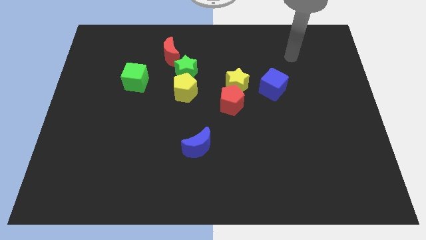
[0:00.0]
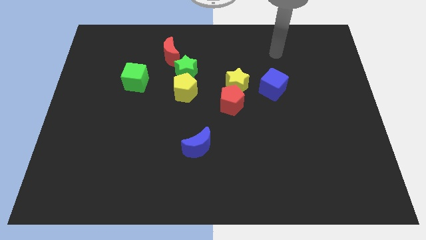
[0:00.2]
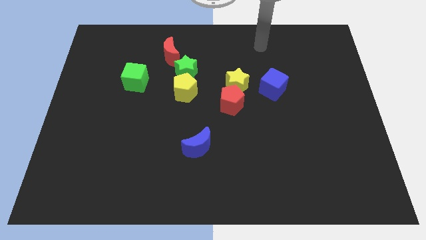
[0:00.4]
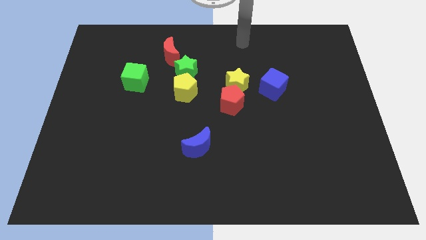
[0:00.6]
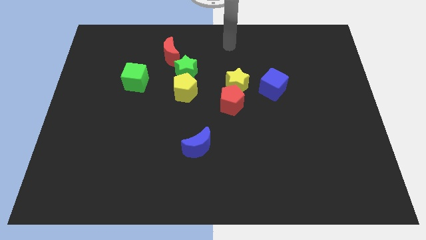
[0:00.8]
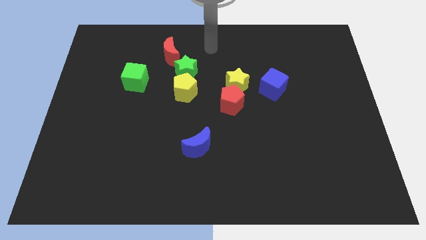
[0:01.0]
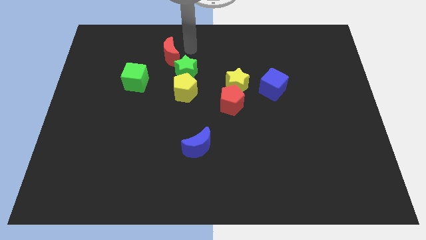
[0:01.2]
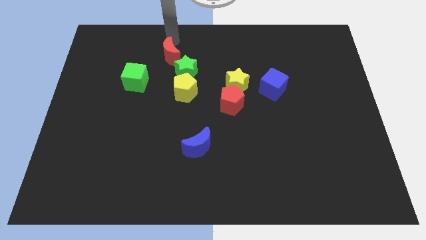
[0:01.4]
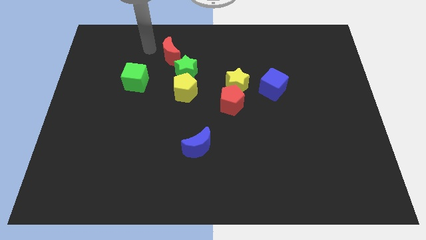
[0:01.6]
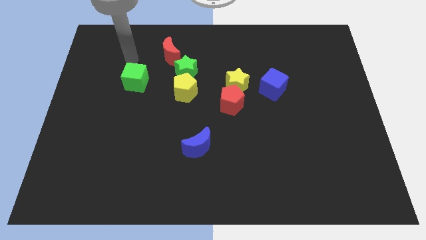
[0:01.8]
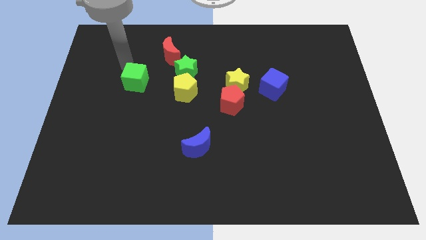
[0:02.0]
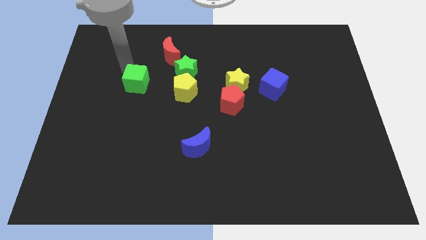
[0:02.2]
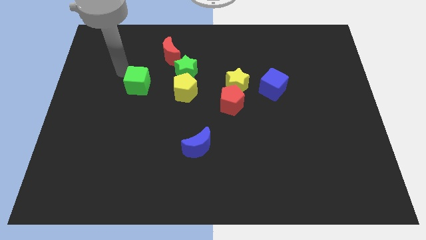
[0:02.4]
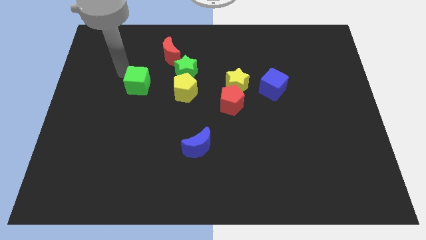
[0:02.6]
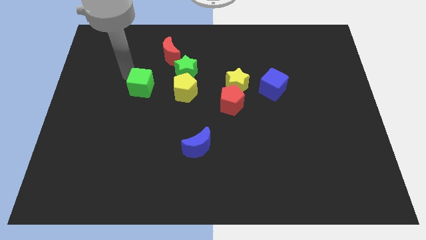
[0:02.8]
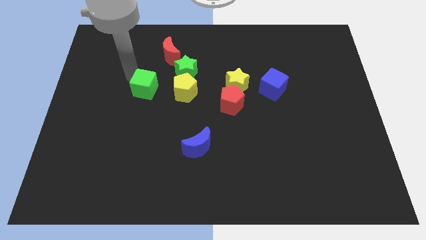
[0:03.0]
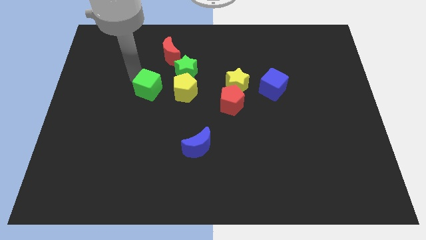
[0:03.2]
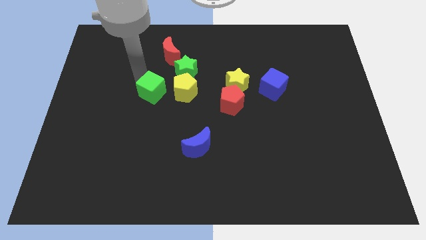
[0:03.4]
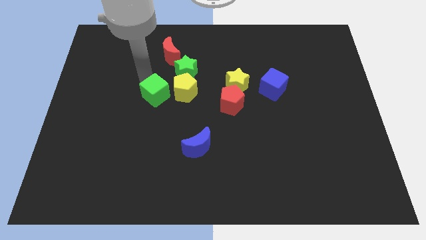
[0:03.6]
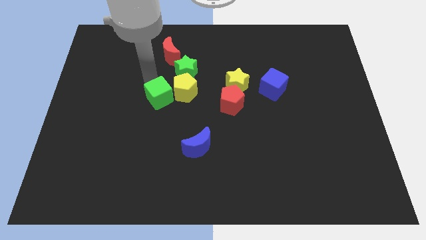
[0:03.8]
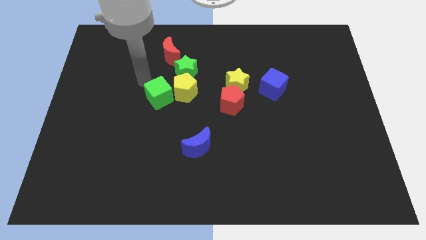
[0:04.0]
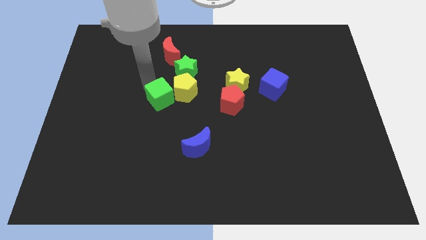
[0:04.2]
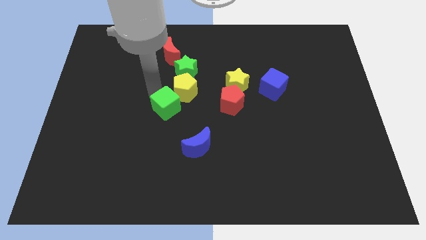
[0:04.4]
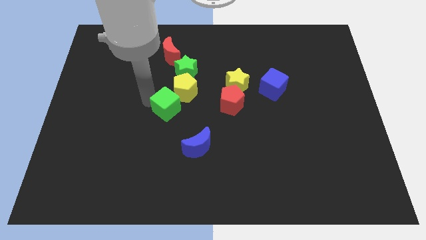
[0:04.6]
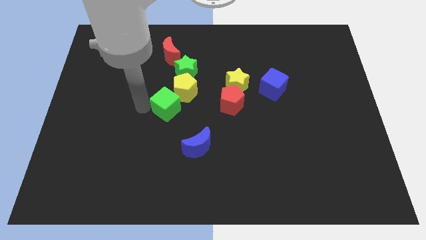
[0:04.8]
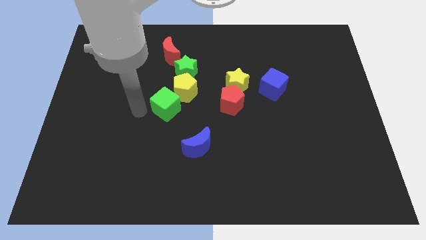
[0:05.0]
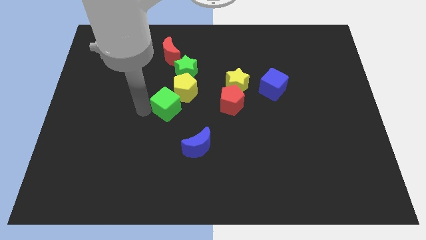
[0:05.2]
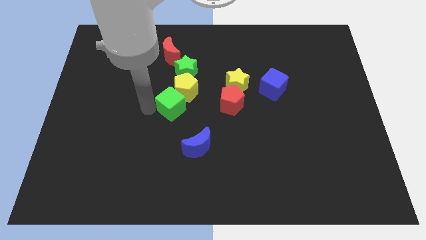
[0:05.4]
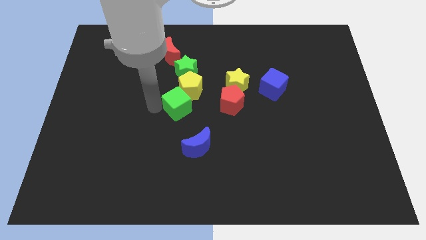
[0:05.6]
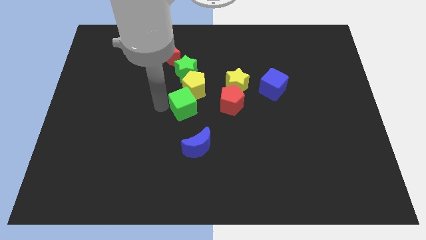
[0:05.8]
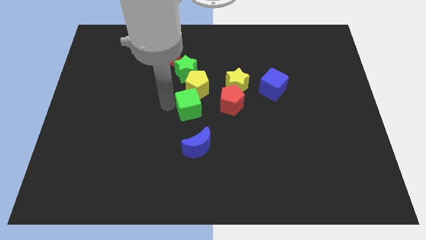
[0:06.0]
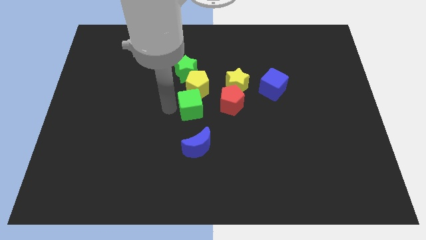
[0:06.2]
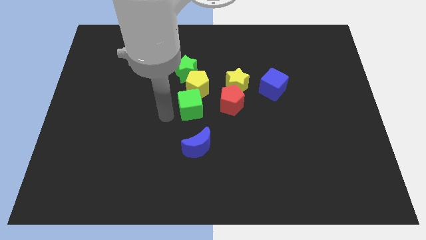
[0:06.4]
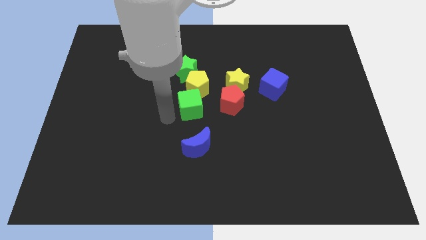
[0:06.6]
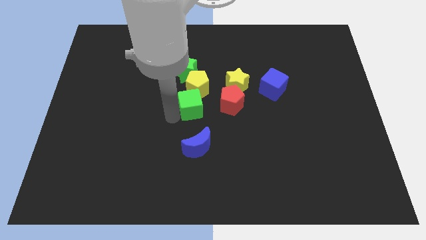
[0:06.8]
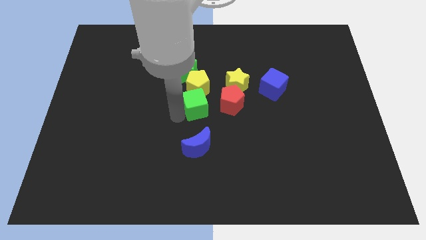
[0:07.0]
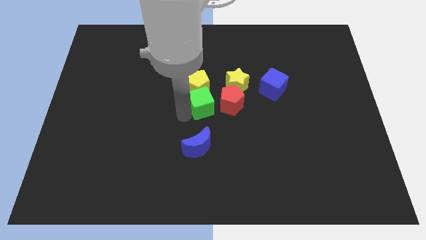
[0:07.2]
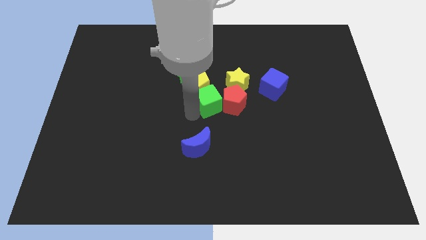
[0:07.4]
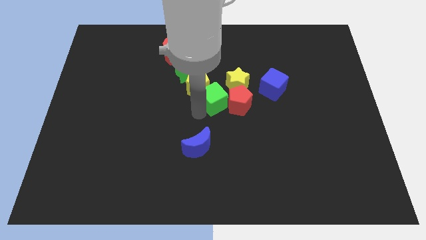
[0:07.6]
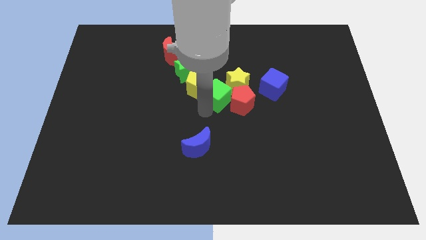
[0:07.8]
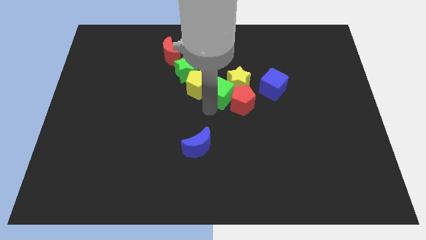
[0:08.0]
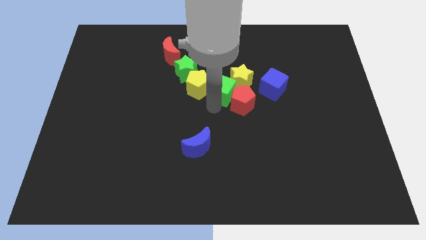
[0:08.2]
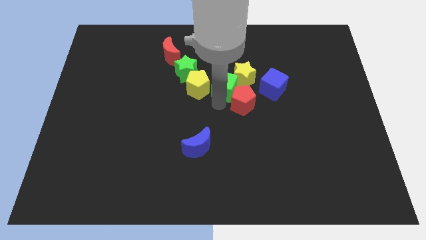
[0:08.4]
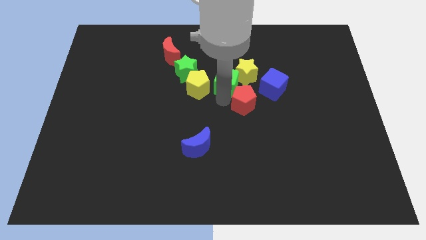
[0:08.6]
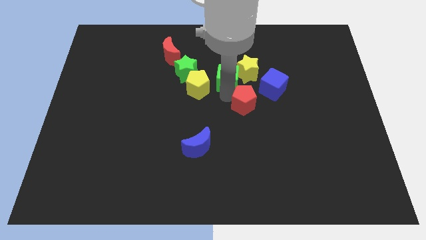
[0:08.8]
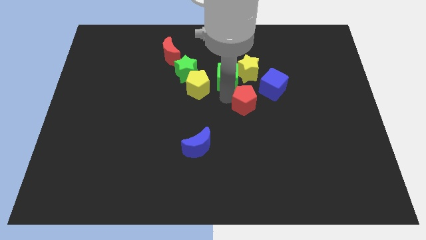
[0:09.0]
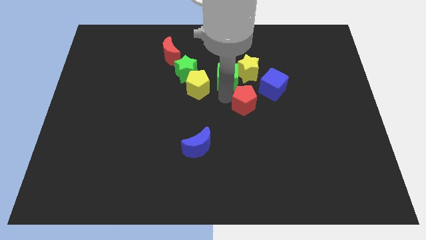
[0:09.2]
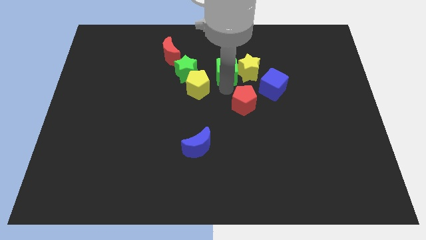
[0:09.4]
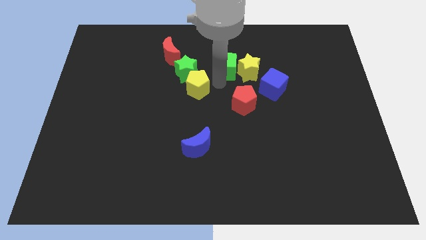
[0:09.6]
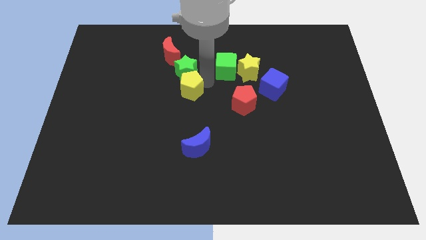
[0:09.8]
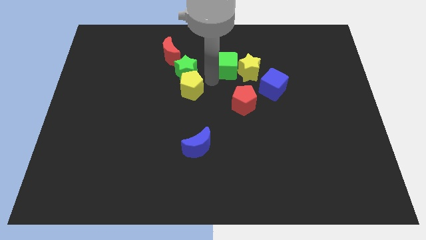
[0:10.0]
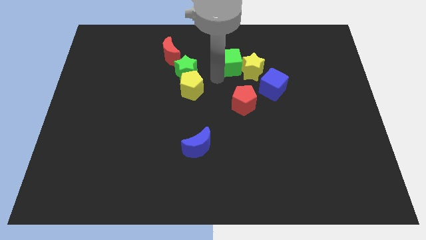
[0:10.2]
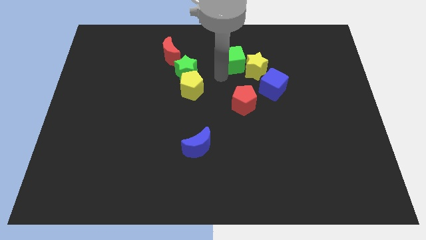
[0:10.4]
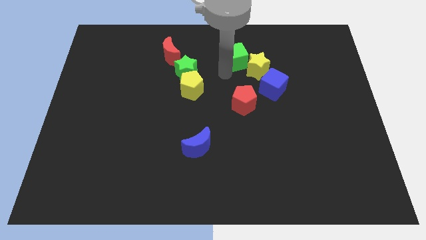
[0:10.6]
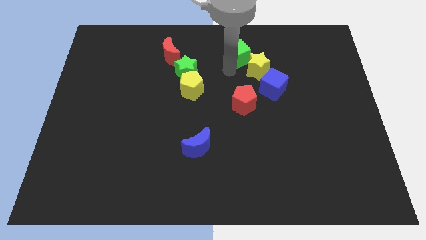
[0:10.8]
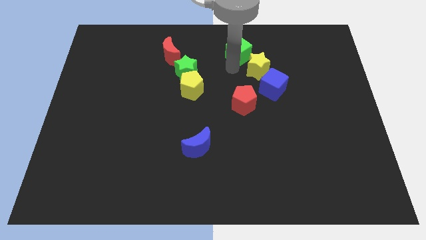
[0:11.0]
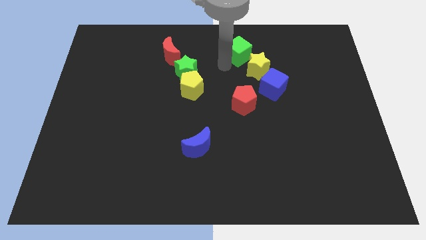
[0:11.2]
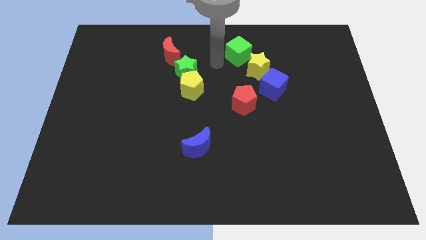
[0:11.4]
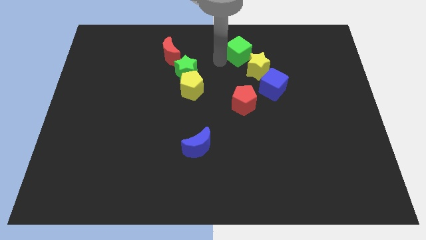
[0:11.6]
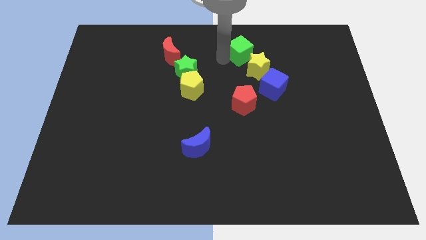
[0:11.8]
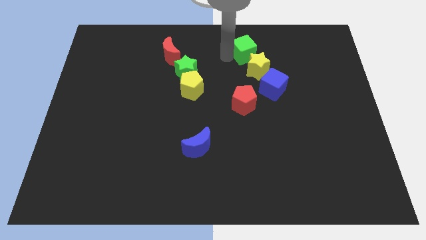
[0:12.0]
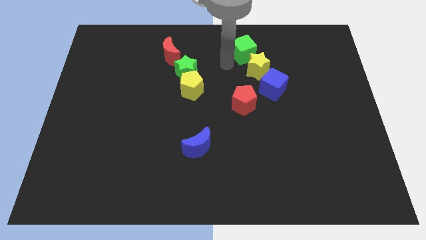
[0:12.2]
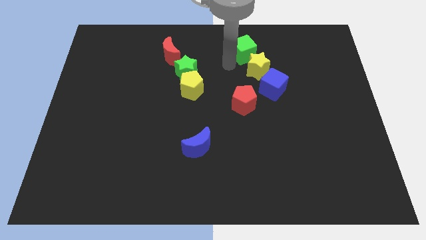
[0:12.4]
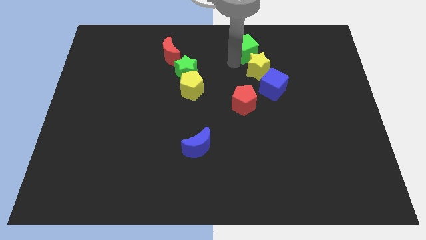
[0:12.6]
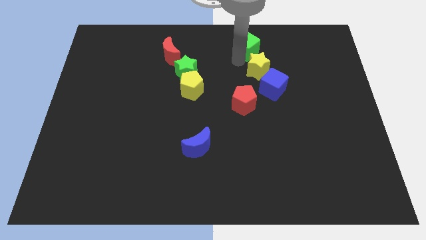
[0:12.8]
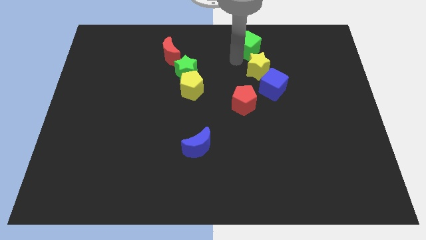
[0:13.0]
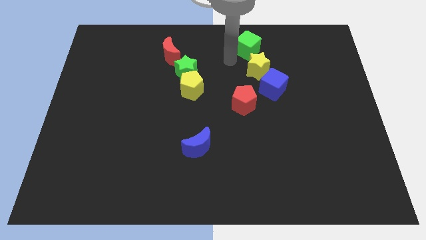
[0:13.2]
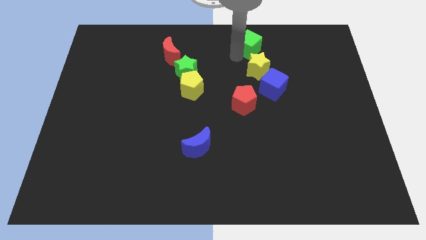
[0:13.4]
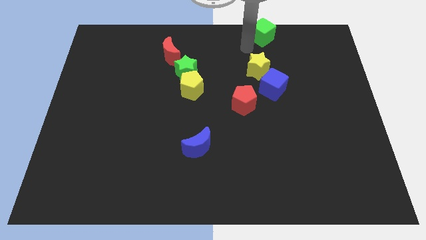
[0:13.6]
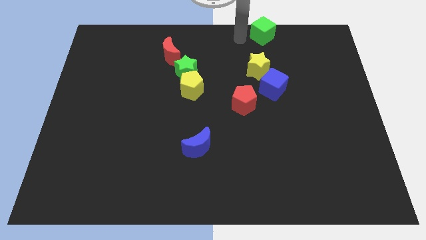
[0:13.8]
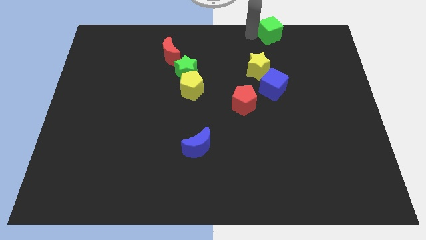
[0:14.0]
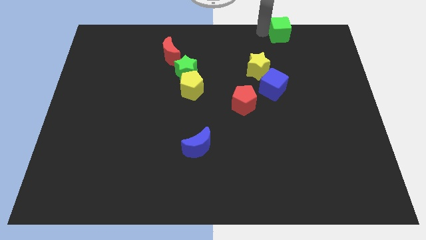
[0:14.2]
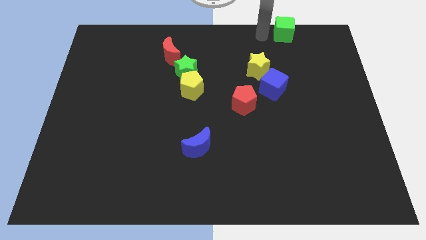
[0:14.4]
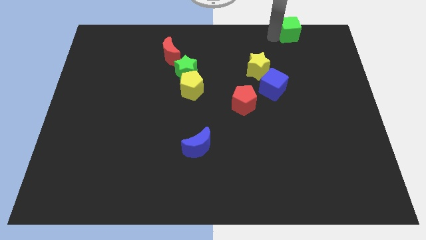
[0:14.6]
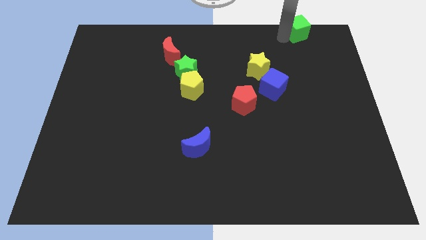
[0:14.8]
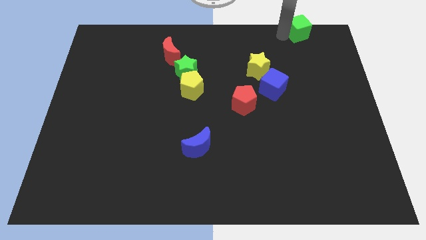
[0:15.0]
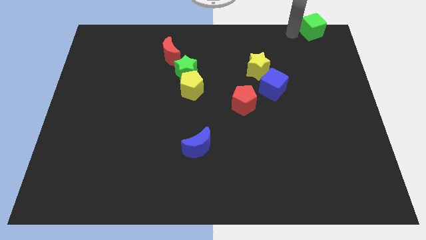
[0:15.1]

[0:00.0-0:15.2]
move the green cube to the top right corner
